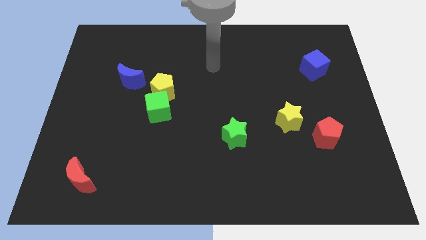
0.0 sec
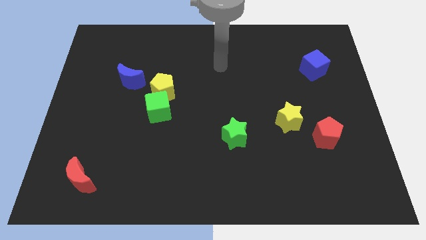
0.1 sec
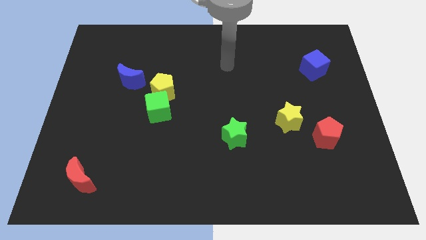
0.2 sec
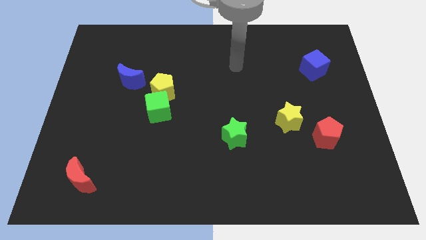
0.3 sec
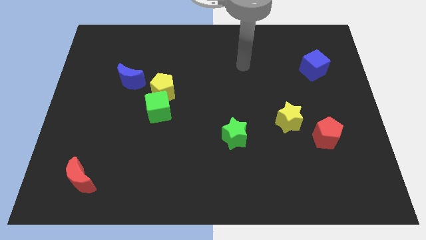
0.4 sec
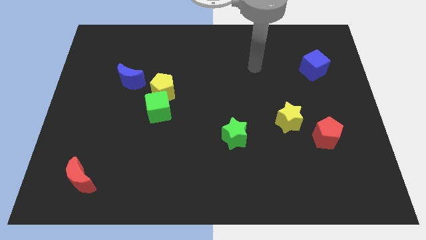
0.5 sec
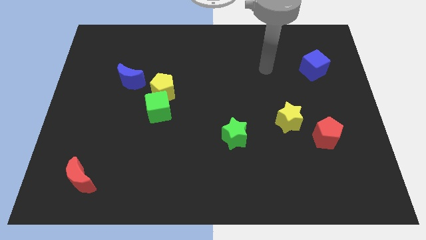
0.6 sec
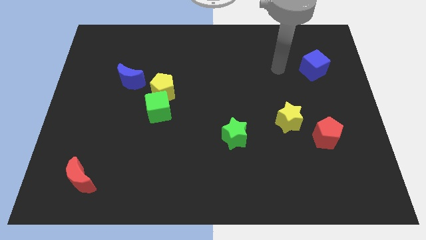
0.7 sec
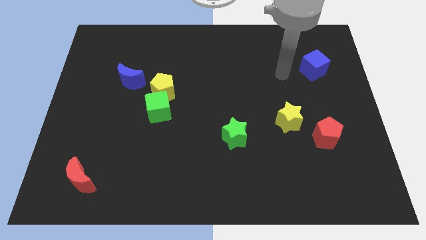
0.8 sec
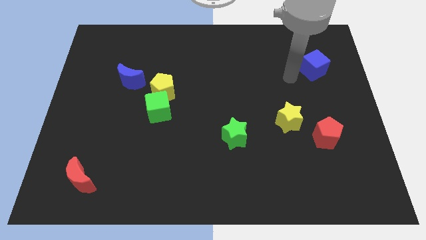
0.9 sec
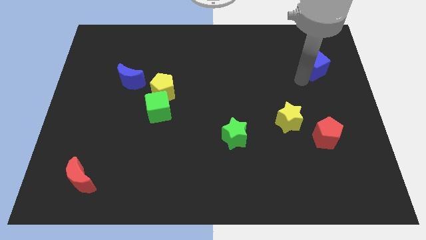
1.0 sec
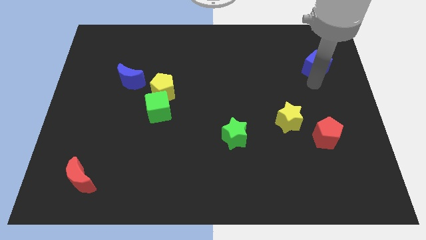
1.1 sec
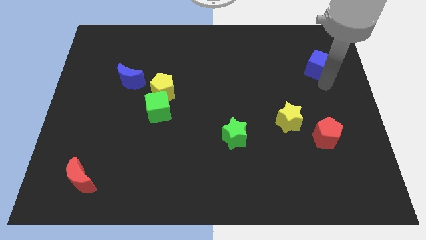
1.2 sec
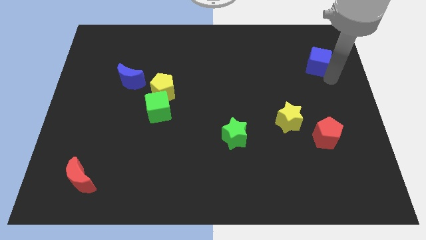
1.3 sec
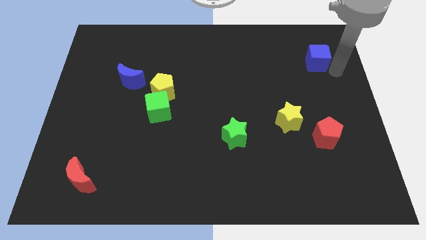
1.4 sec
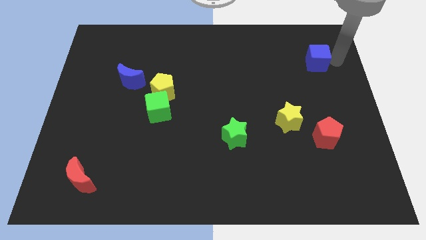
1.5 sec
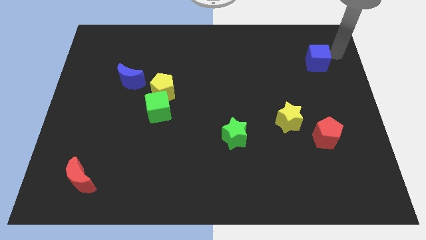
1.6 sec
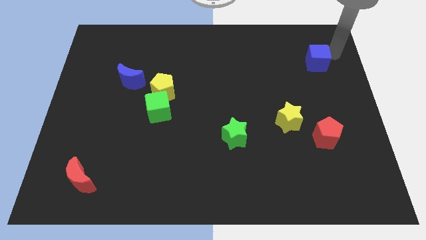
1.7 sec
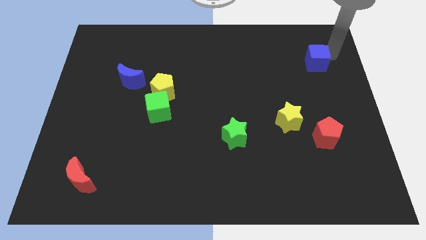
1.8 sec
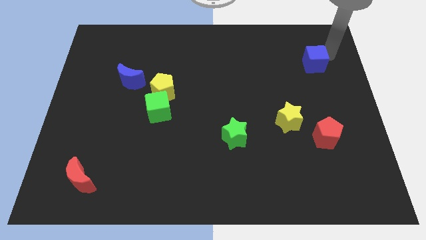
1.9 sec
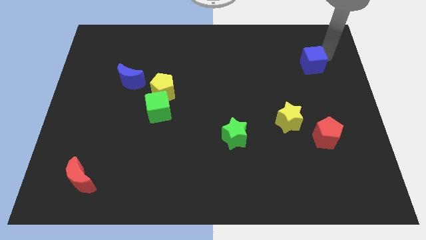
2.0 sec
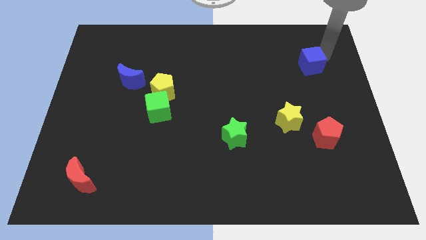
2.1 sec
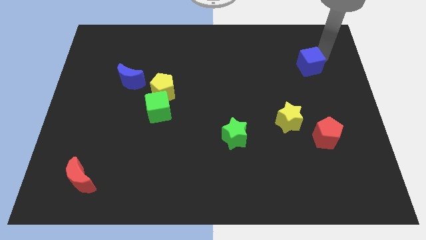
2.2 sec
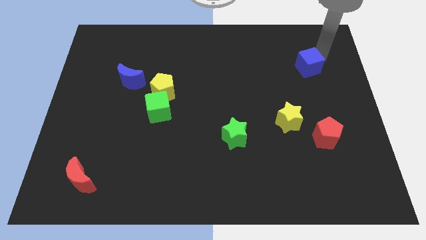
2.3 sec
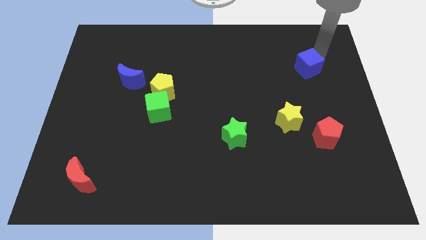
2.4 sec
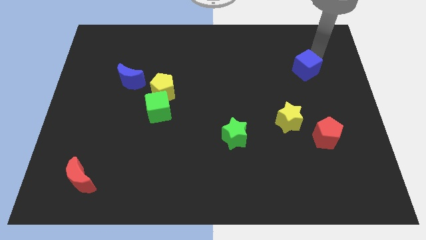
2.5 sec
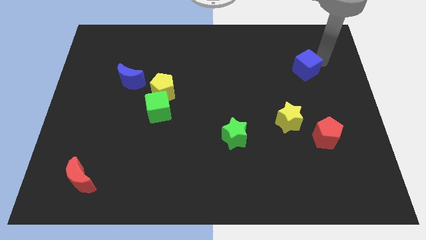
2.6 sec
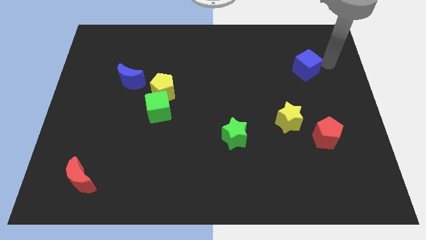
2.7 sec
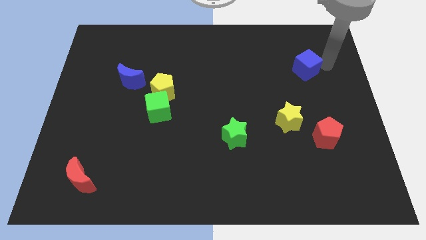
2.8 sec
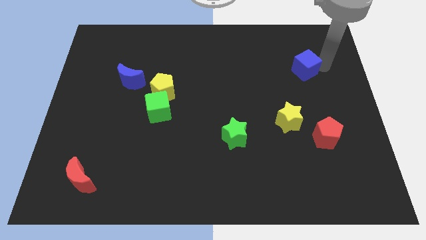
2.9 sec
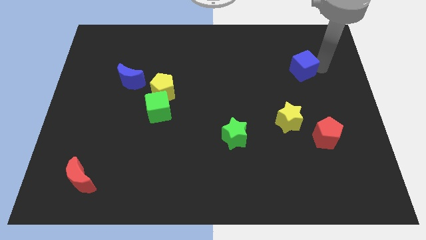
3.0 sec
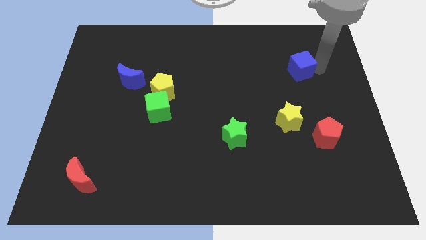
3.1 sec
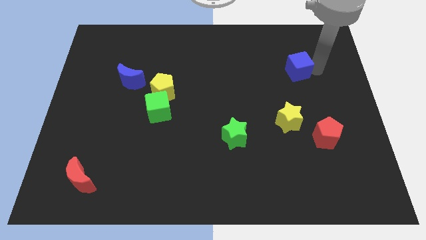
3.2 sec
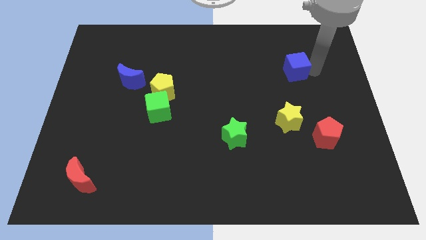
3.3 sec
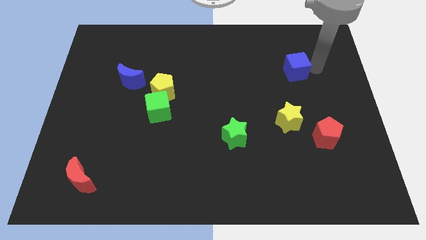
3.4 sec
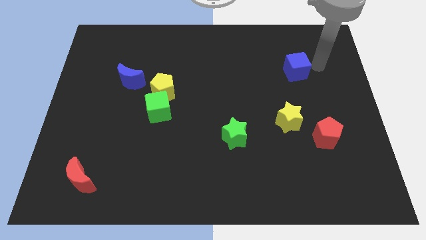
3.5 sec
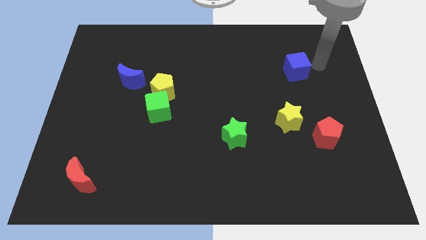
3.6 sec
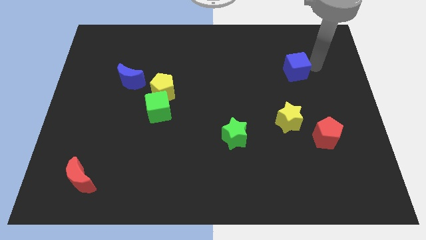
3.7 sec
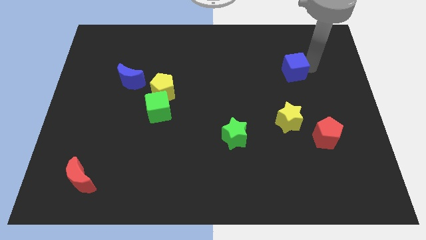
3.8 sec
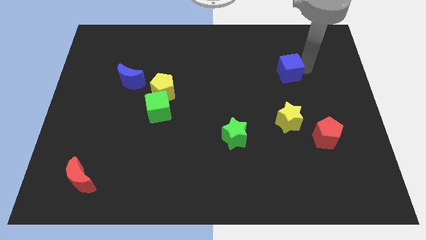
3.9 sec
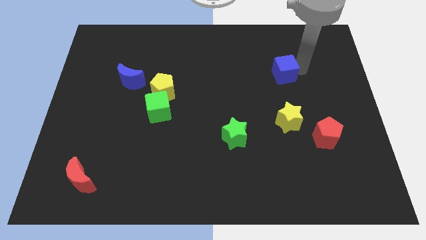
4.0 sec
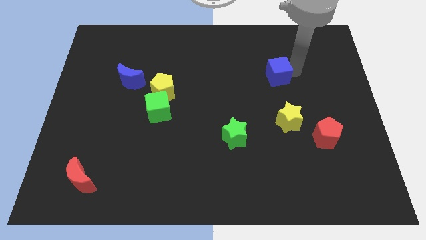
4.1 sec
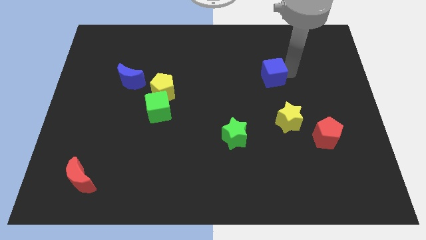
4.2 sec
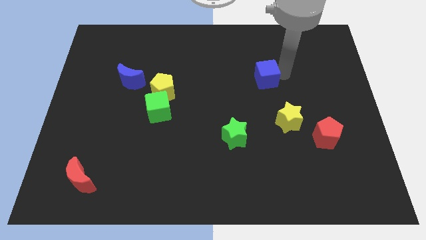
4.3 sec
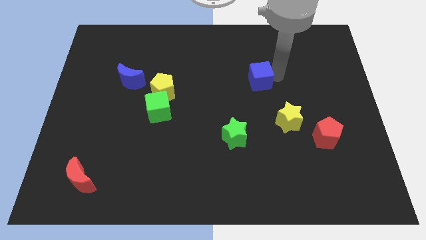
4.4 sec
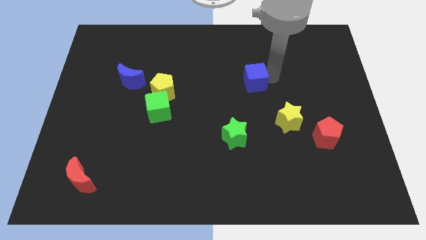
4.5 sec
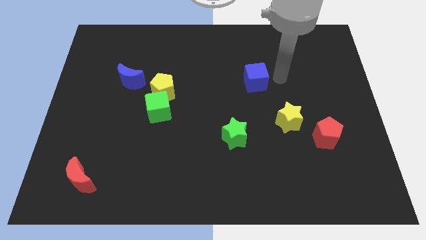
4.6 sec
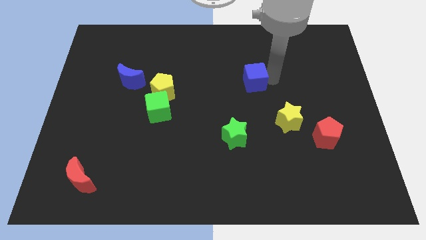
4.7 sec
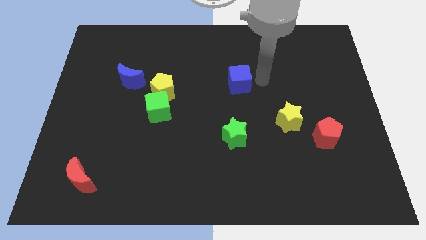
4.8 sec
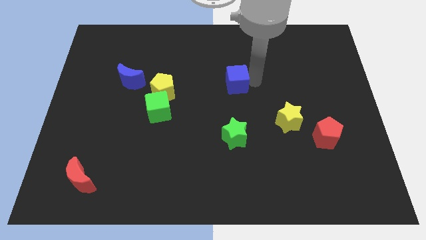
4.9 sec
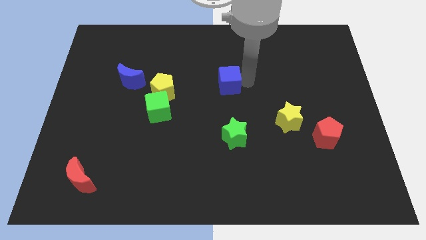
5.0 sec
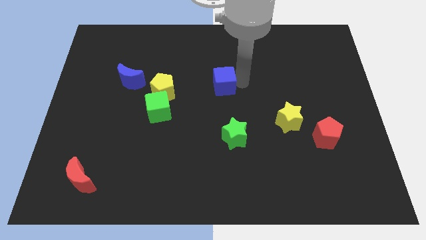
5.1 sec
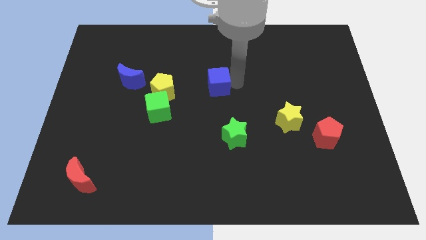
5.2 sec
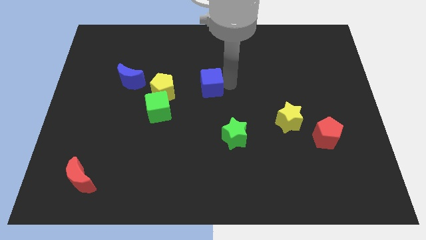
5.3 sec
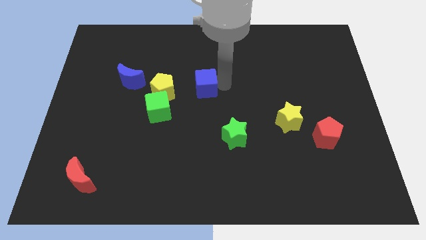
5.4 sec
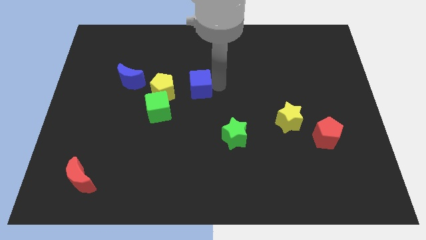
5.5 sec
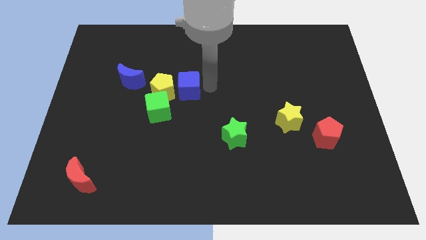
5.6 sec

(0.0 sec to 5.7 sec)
move the blue cube next to the yellow pentagon

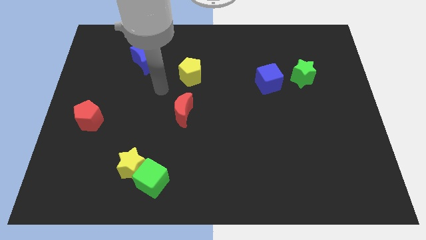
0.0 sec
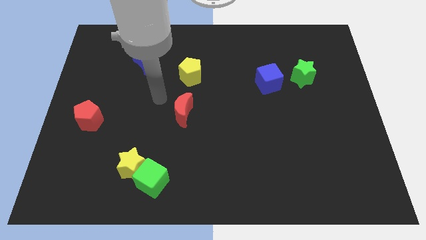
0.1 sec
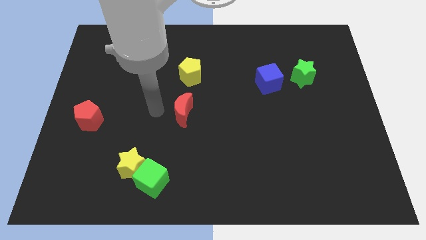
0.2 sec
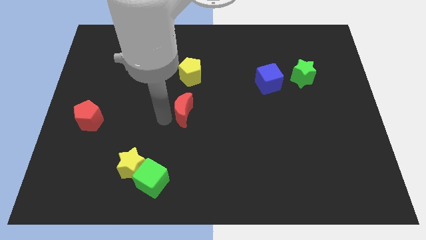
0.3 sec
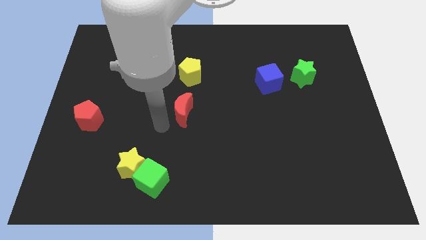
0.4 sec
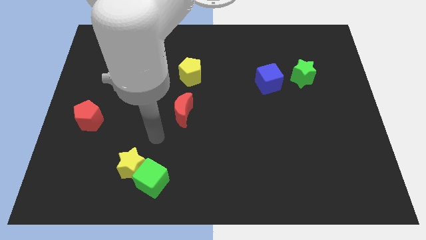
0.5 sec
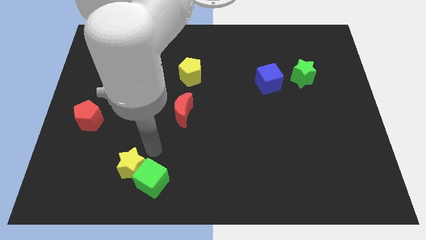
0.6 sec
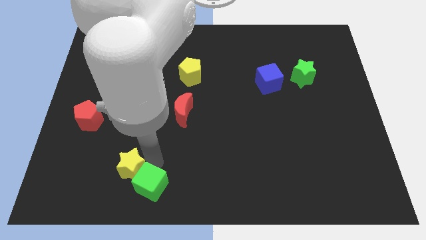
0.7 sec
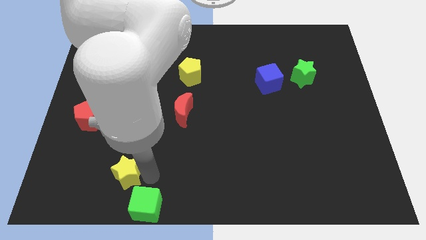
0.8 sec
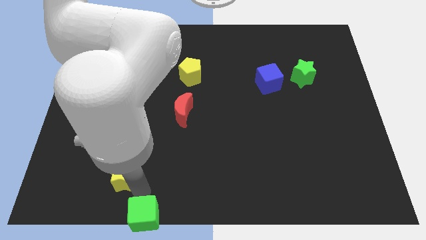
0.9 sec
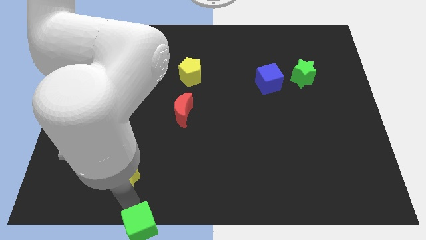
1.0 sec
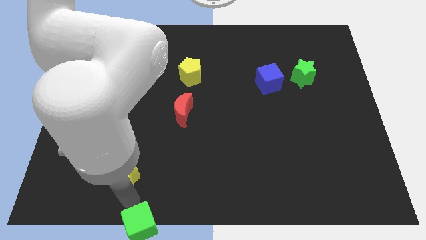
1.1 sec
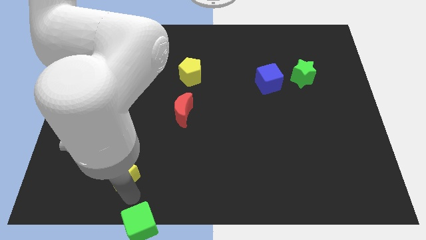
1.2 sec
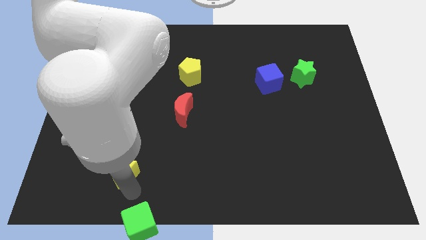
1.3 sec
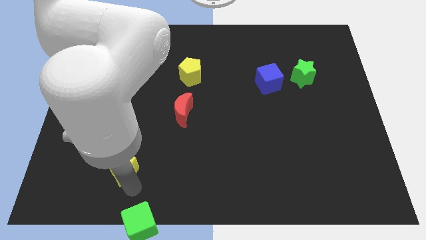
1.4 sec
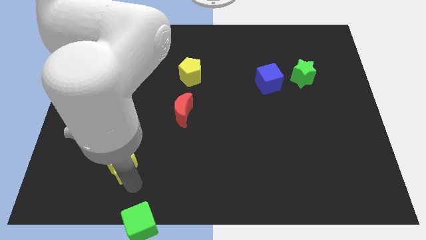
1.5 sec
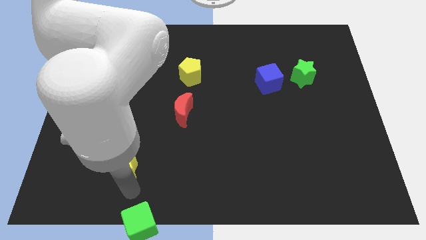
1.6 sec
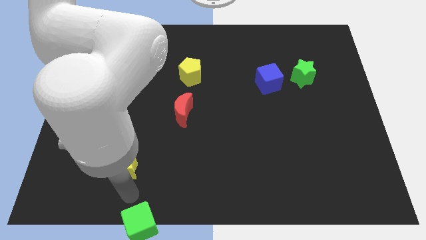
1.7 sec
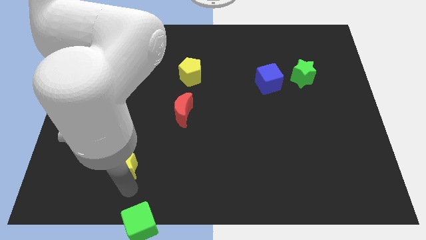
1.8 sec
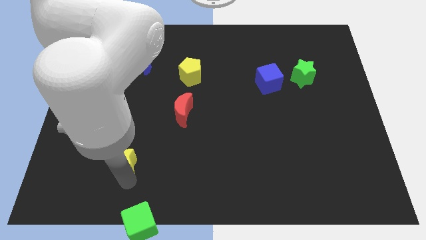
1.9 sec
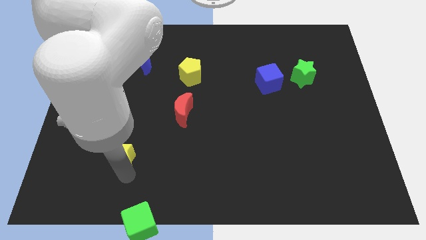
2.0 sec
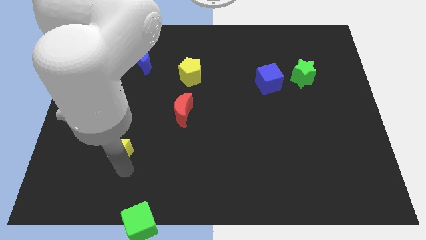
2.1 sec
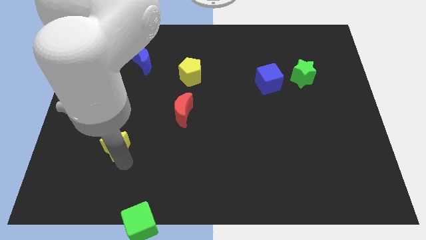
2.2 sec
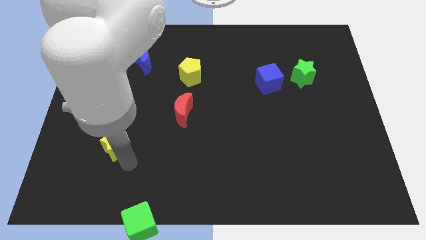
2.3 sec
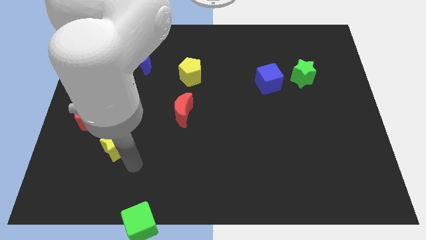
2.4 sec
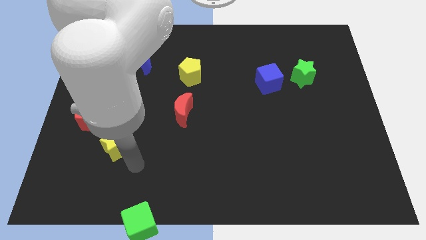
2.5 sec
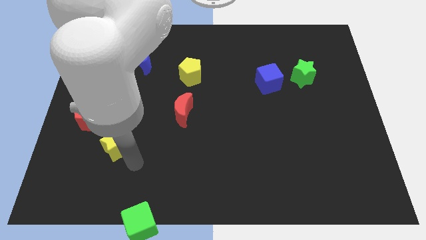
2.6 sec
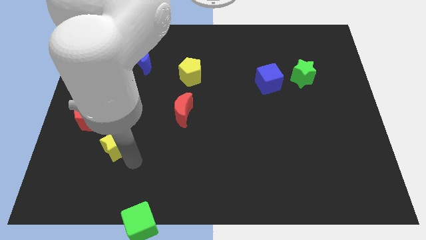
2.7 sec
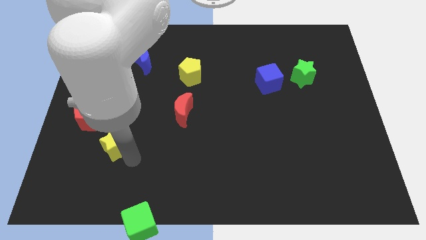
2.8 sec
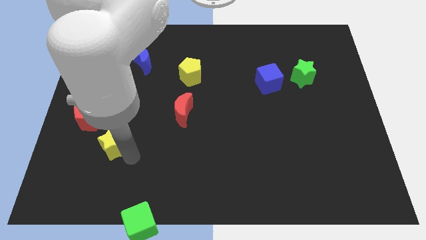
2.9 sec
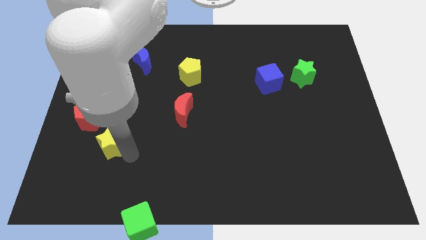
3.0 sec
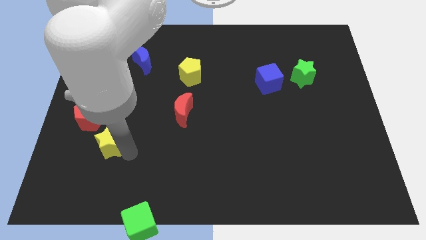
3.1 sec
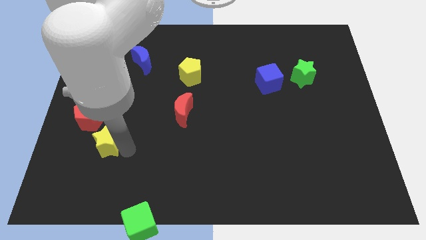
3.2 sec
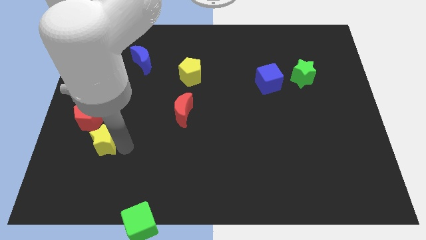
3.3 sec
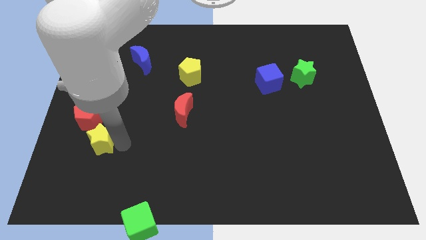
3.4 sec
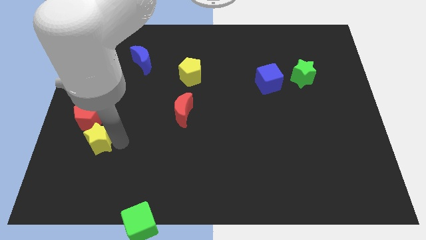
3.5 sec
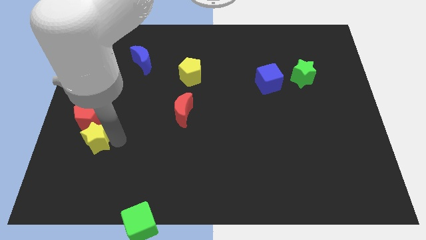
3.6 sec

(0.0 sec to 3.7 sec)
move the yellow star next to the red pentagon
